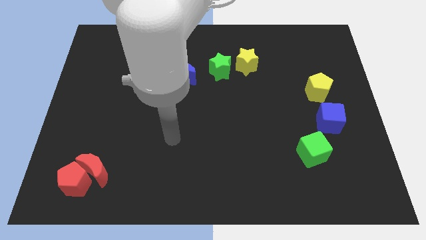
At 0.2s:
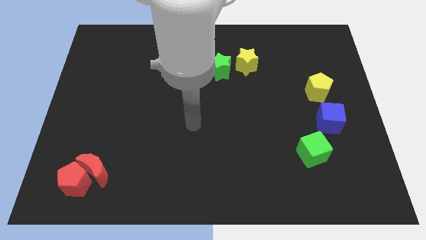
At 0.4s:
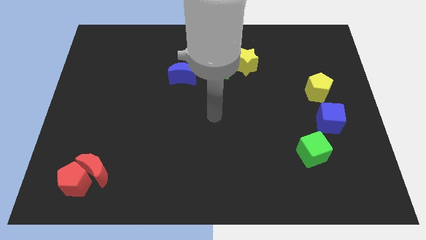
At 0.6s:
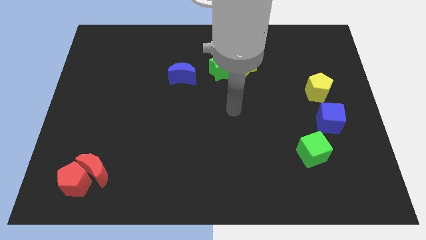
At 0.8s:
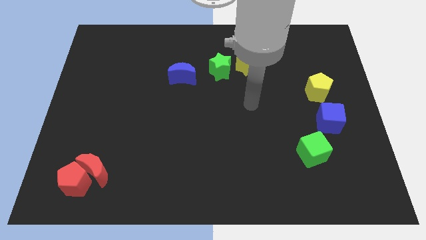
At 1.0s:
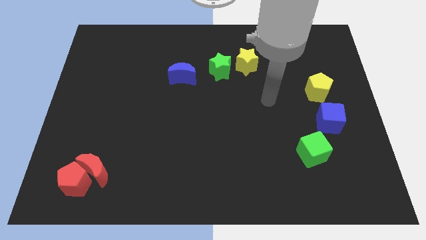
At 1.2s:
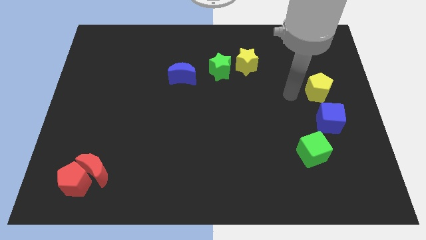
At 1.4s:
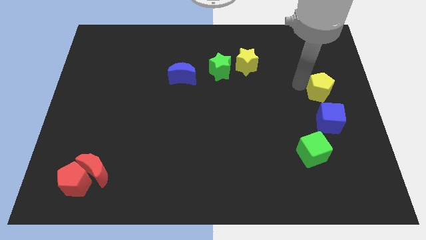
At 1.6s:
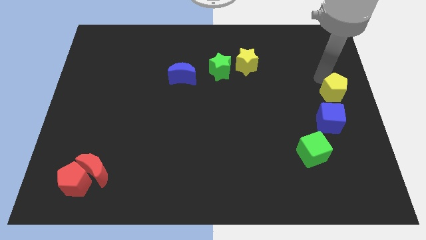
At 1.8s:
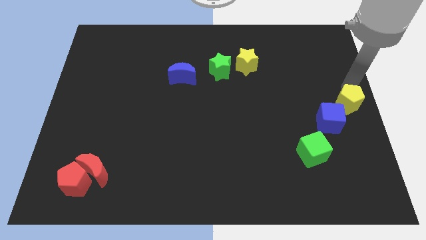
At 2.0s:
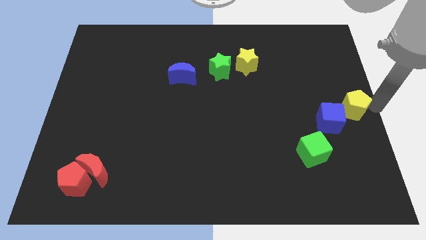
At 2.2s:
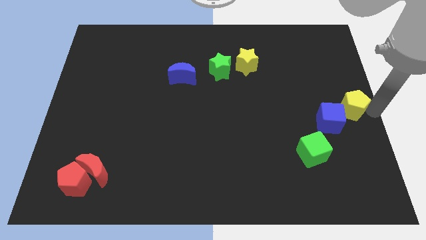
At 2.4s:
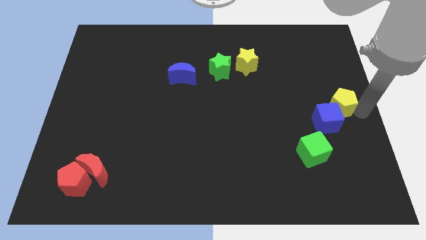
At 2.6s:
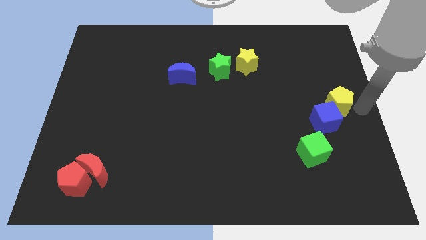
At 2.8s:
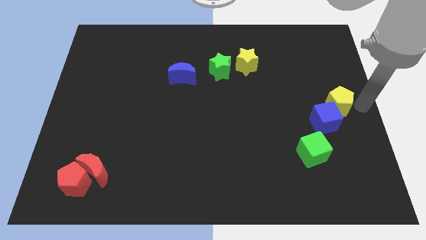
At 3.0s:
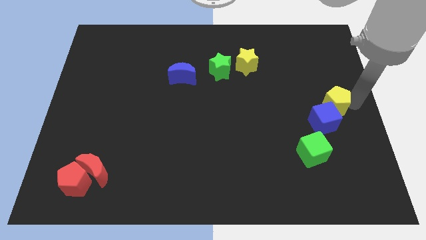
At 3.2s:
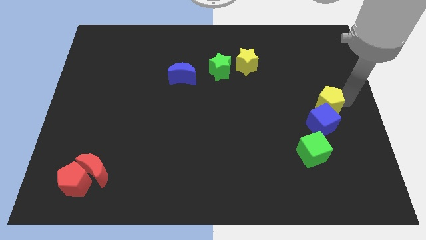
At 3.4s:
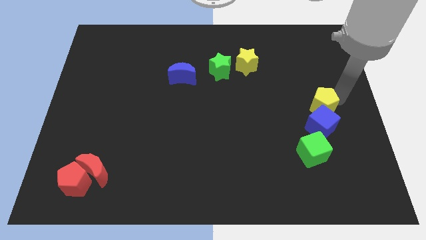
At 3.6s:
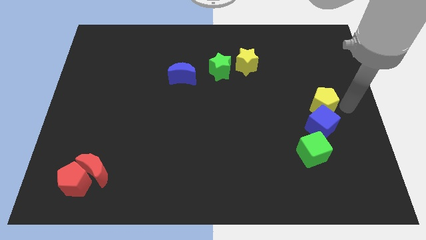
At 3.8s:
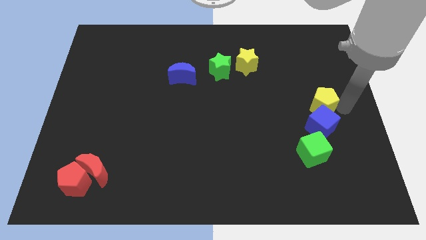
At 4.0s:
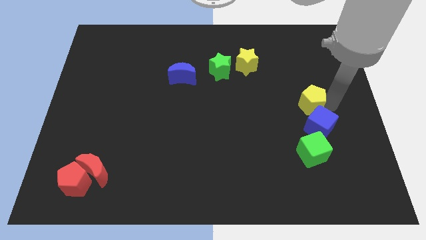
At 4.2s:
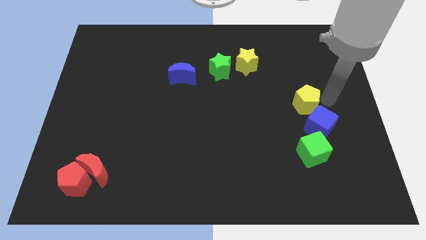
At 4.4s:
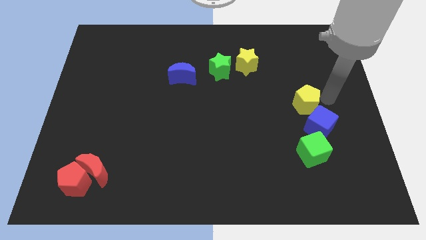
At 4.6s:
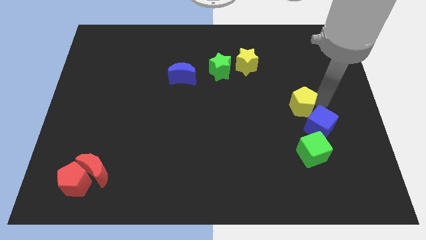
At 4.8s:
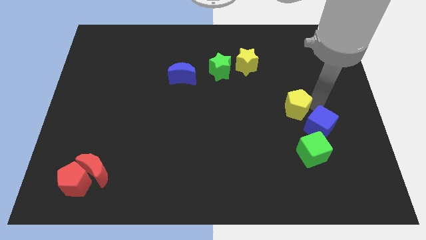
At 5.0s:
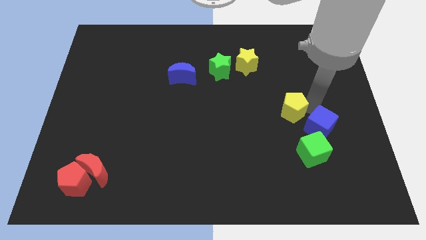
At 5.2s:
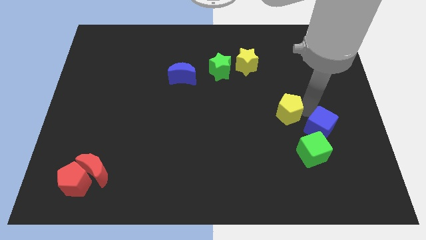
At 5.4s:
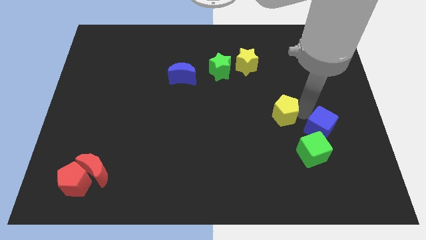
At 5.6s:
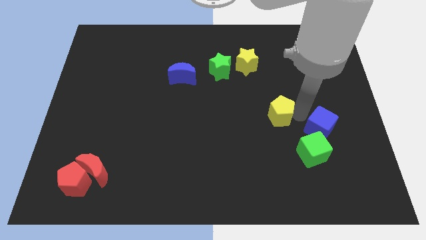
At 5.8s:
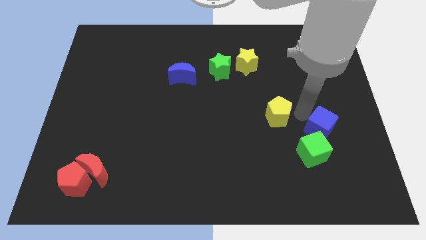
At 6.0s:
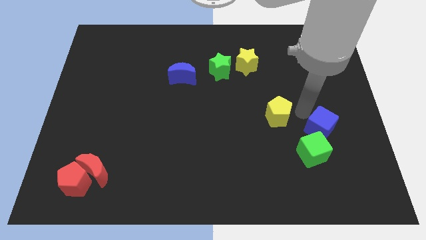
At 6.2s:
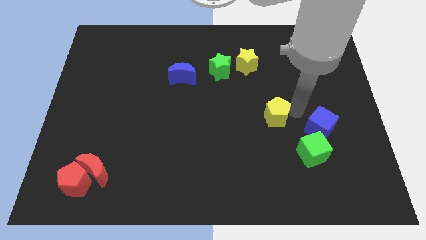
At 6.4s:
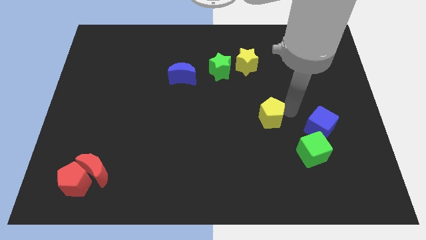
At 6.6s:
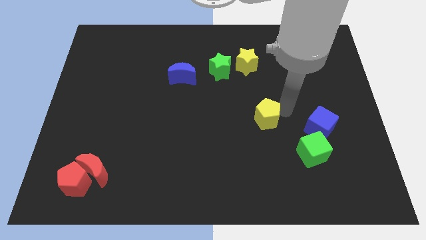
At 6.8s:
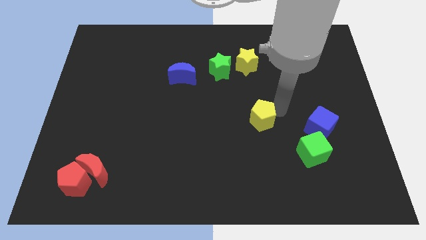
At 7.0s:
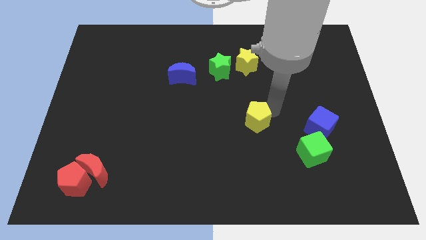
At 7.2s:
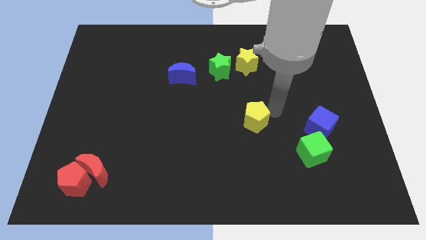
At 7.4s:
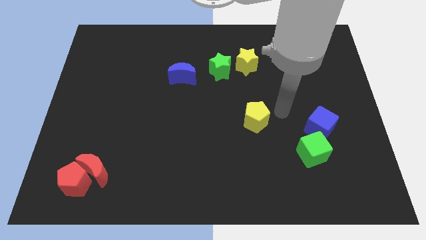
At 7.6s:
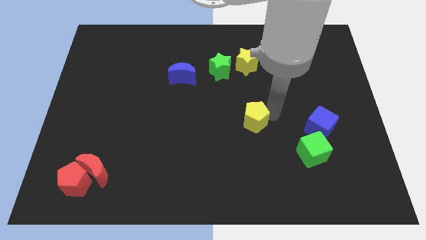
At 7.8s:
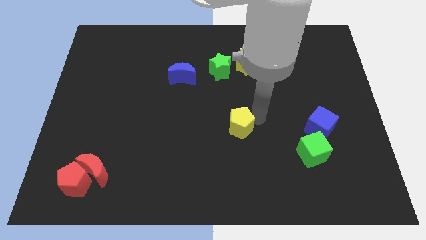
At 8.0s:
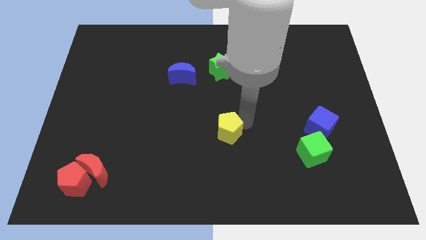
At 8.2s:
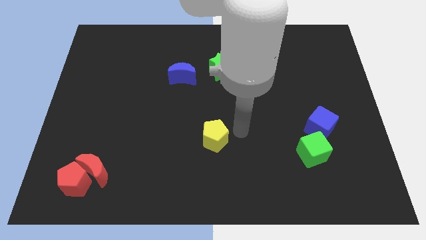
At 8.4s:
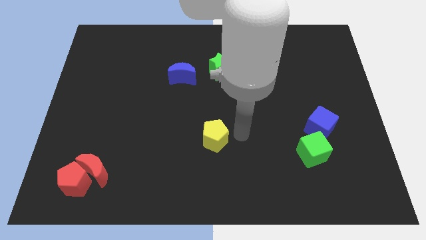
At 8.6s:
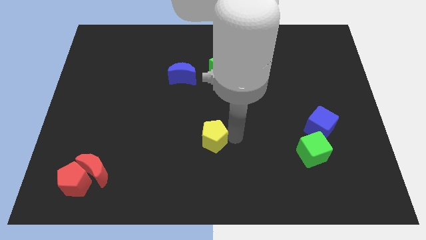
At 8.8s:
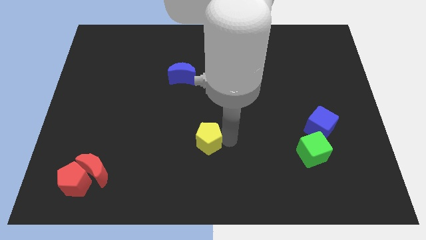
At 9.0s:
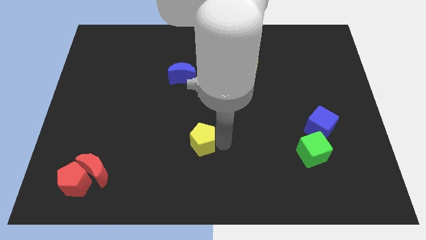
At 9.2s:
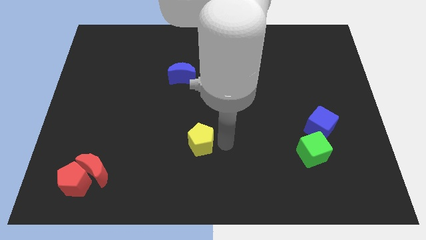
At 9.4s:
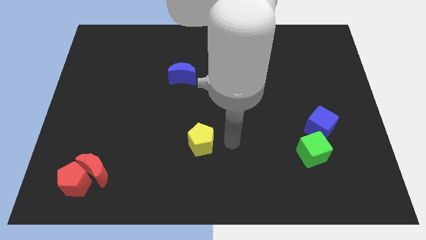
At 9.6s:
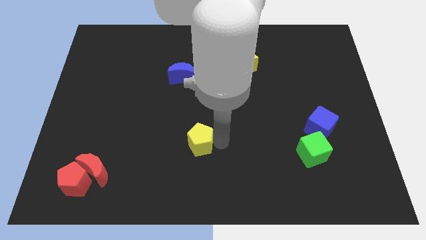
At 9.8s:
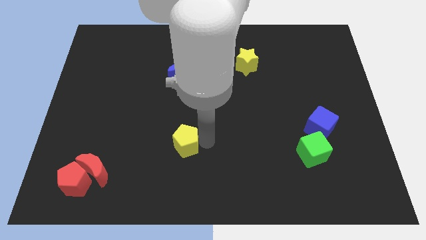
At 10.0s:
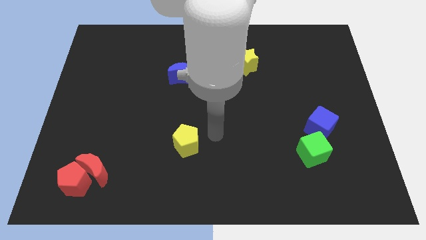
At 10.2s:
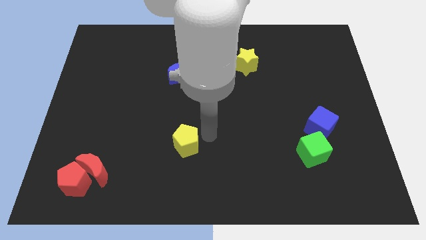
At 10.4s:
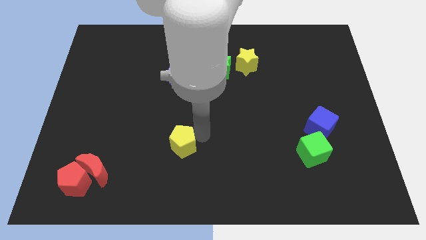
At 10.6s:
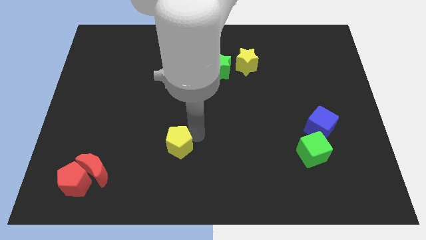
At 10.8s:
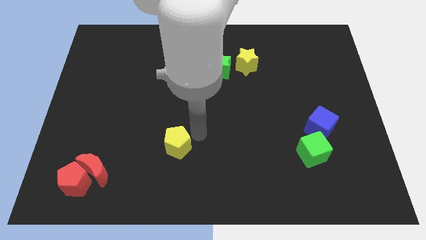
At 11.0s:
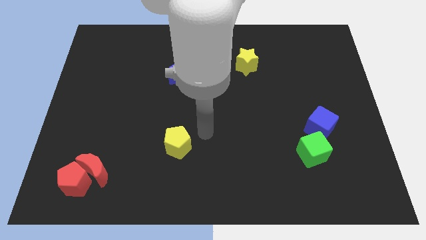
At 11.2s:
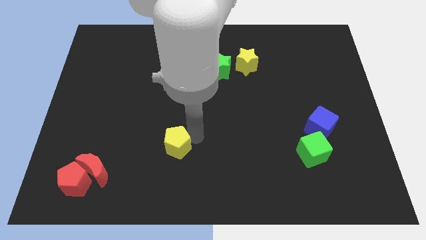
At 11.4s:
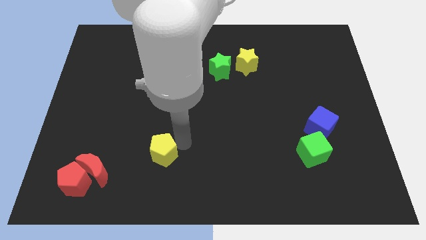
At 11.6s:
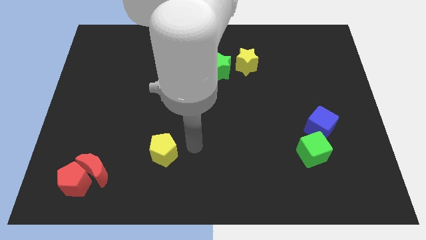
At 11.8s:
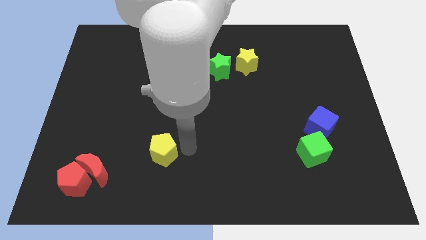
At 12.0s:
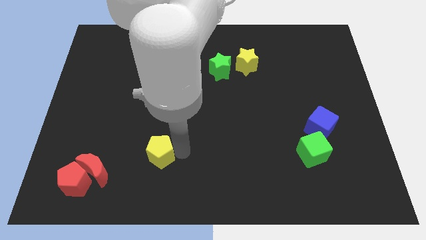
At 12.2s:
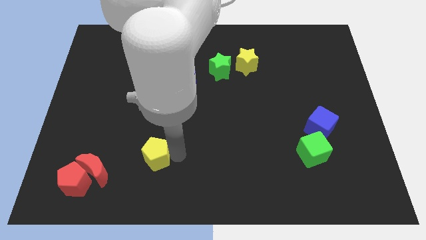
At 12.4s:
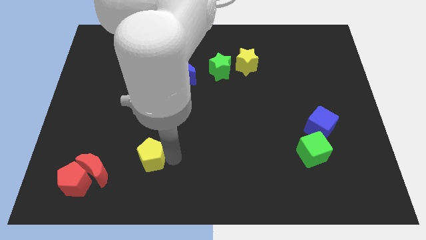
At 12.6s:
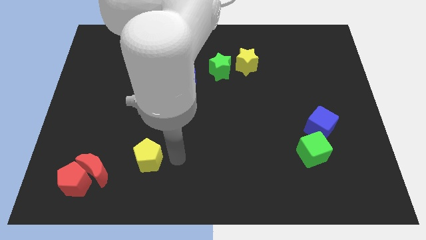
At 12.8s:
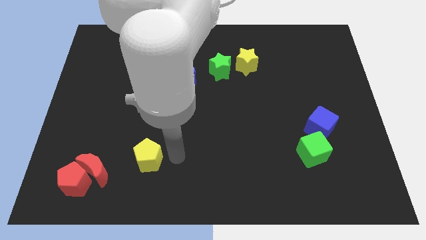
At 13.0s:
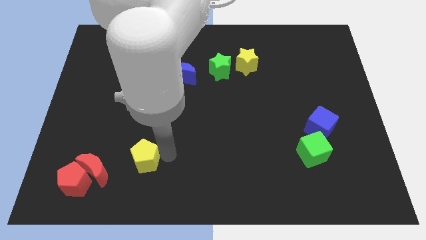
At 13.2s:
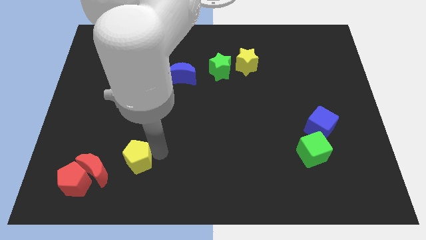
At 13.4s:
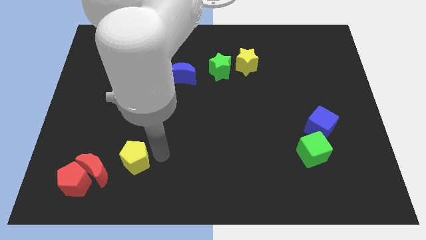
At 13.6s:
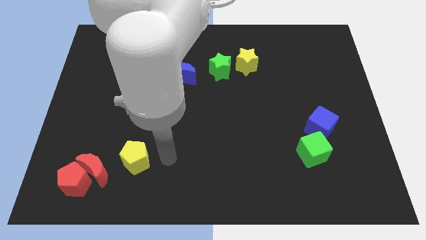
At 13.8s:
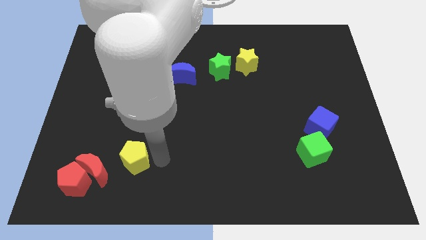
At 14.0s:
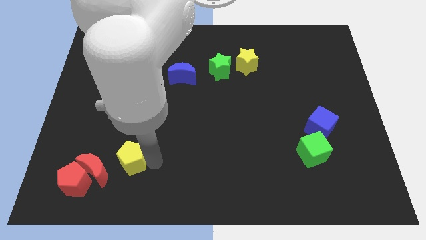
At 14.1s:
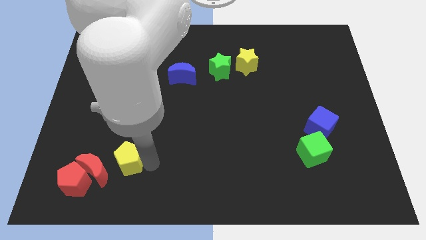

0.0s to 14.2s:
put the yellow pentagon diagonally up and to the right of the red pentagon

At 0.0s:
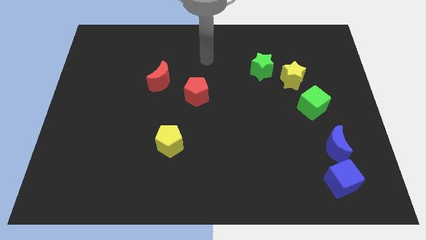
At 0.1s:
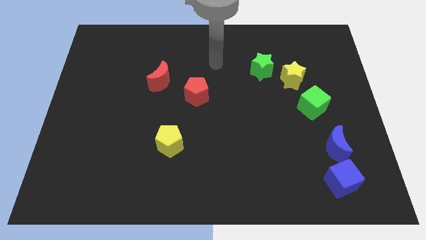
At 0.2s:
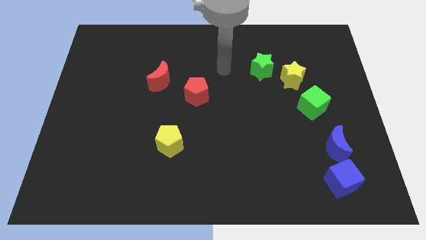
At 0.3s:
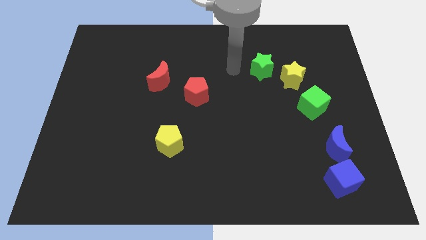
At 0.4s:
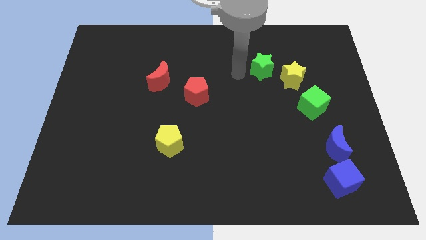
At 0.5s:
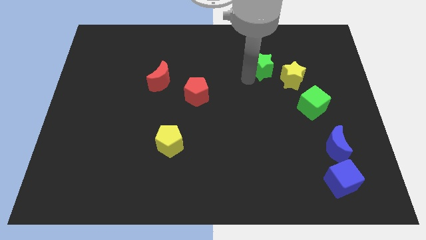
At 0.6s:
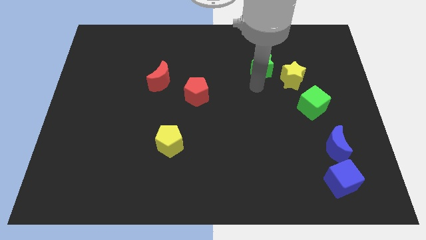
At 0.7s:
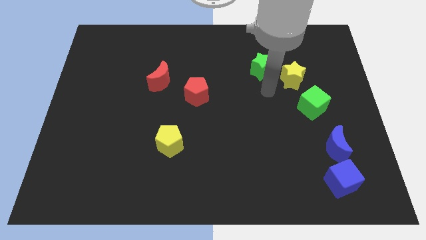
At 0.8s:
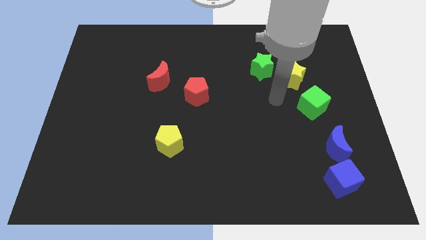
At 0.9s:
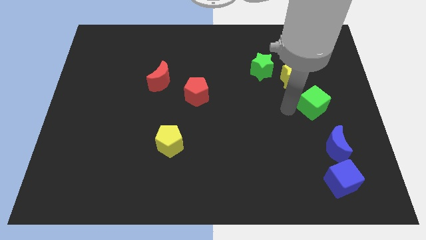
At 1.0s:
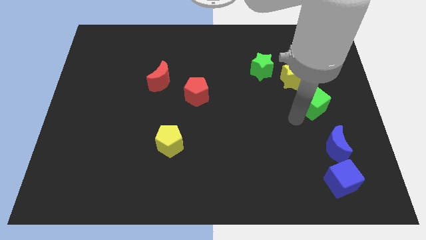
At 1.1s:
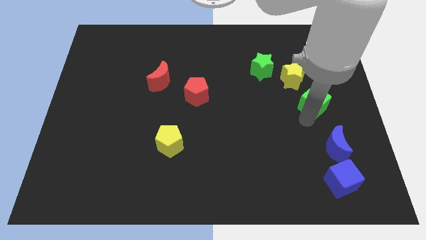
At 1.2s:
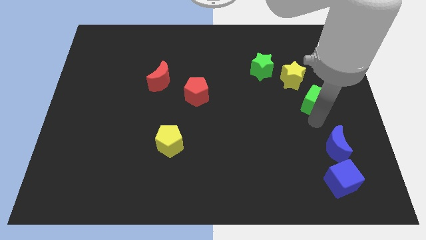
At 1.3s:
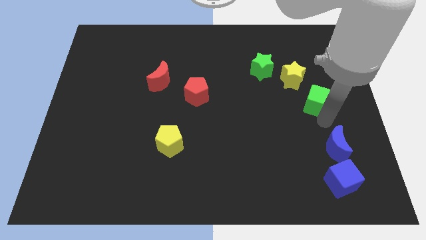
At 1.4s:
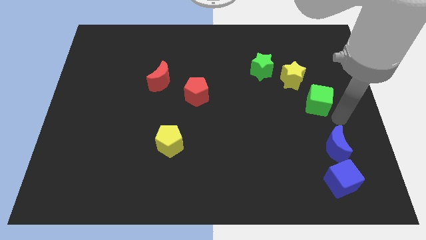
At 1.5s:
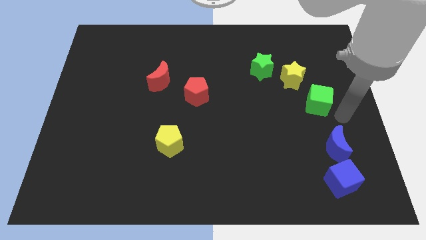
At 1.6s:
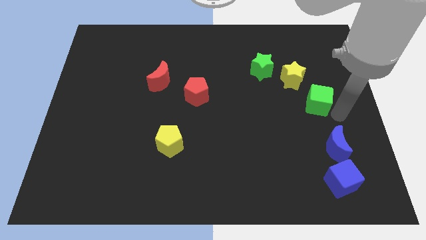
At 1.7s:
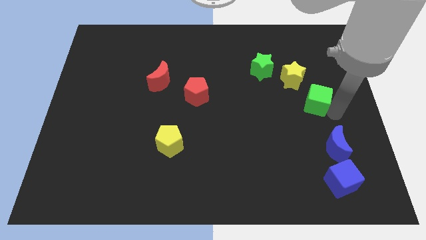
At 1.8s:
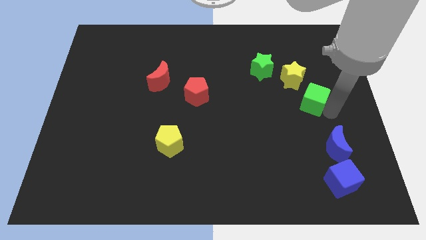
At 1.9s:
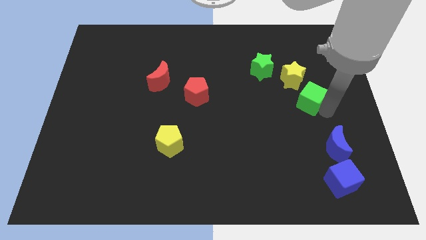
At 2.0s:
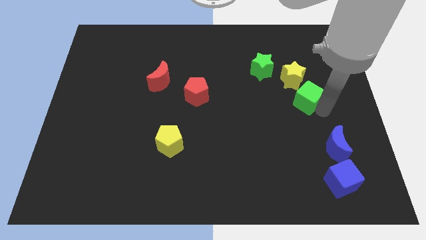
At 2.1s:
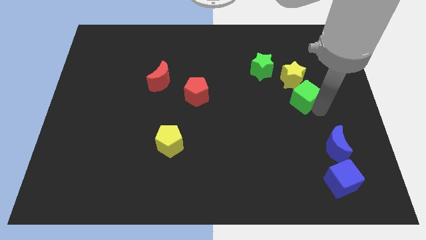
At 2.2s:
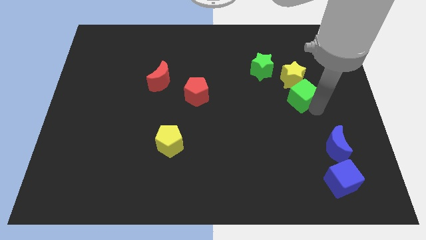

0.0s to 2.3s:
move the green cube diagonally down and to the right of the green star
